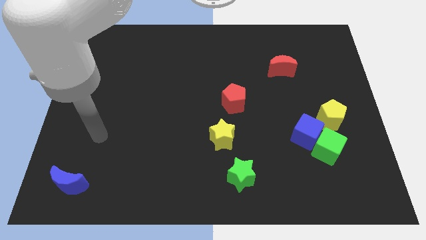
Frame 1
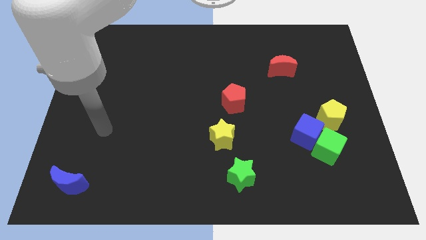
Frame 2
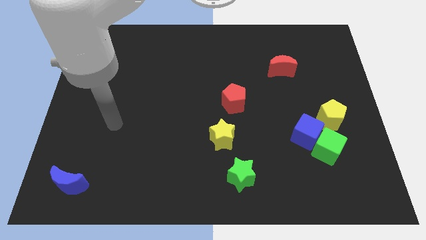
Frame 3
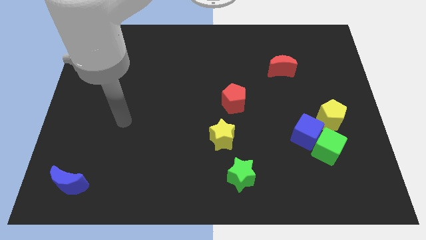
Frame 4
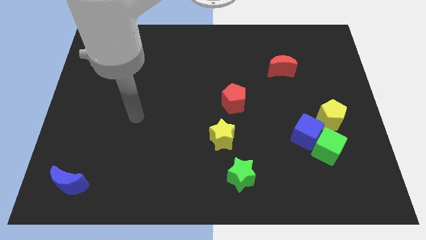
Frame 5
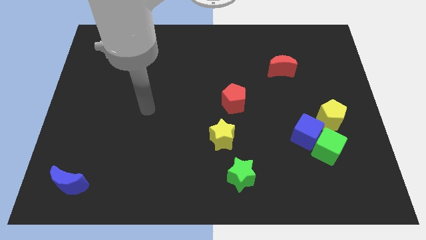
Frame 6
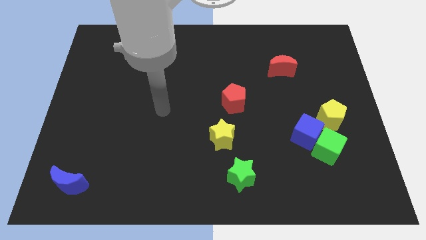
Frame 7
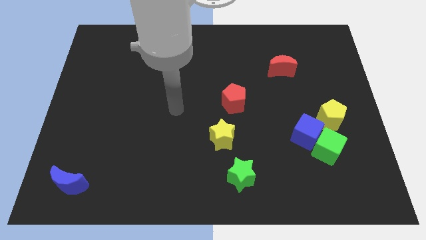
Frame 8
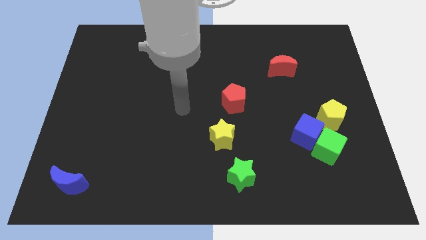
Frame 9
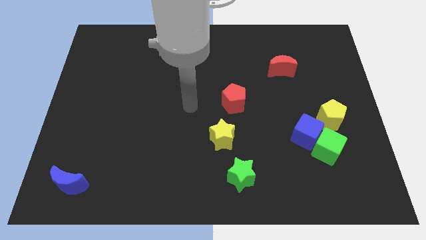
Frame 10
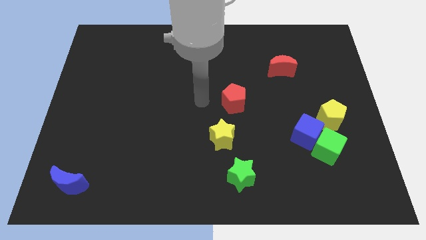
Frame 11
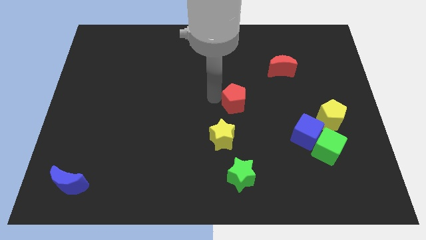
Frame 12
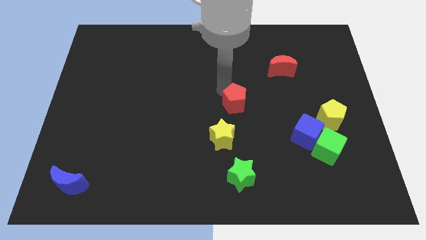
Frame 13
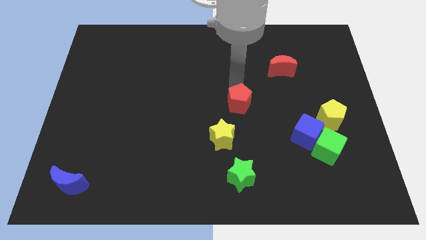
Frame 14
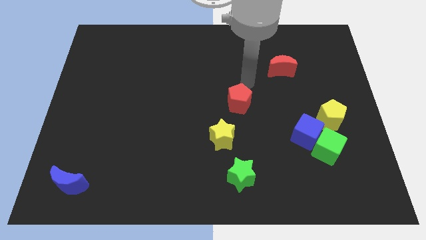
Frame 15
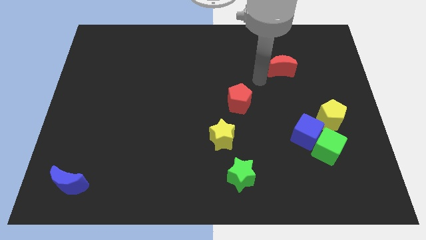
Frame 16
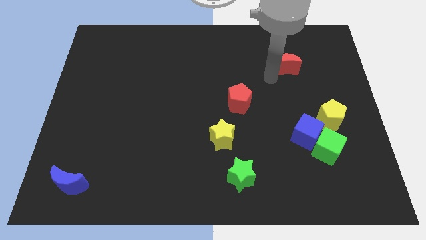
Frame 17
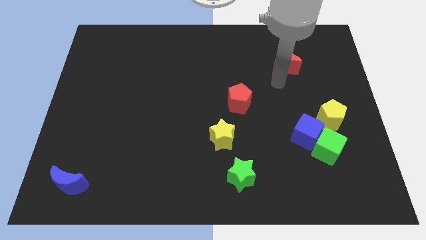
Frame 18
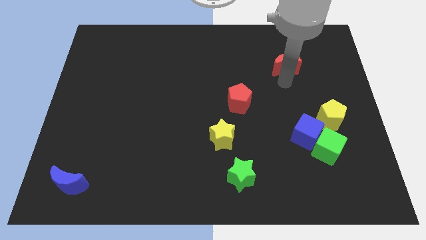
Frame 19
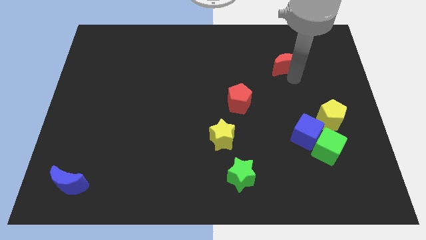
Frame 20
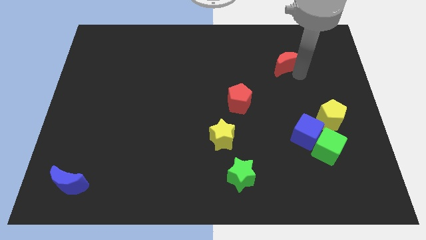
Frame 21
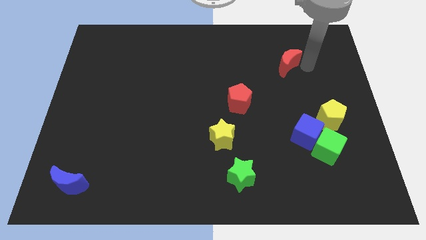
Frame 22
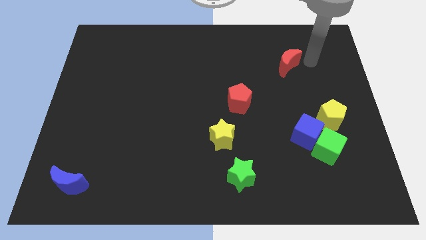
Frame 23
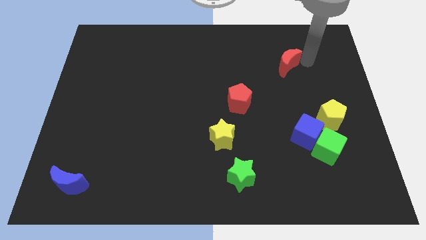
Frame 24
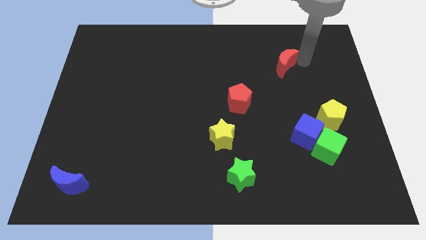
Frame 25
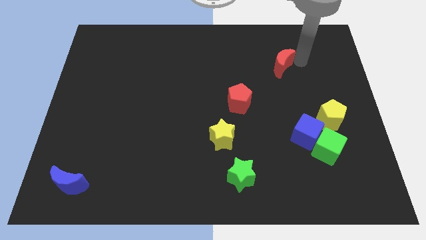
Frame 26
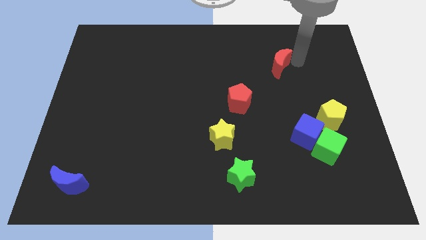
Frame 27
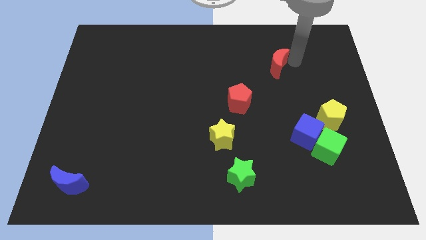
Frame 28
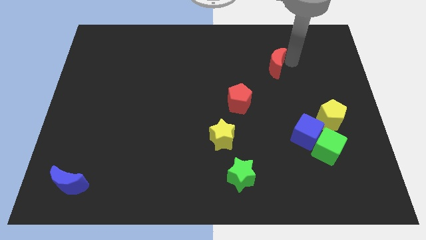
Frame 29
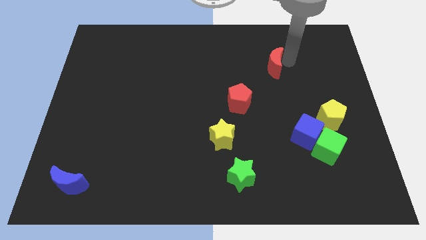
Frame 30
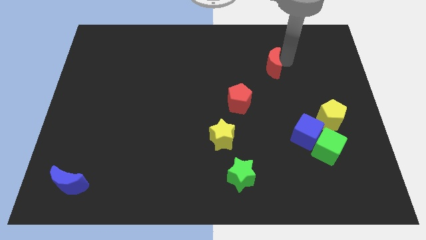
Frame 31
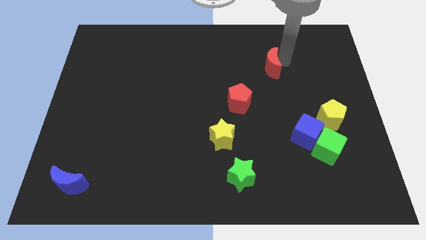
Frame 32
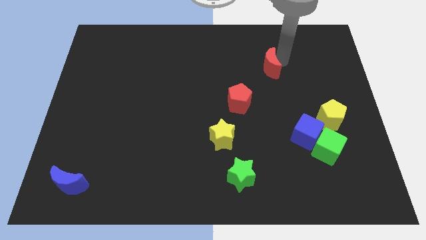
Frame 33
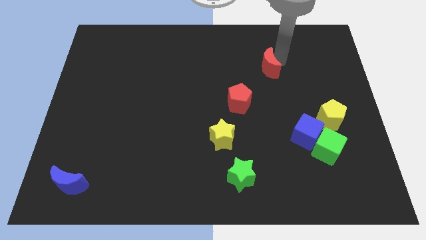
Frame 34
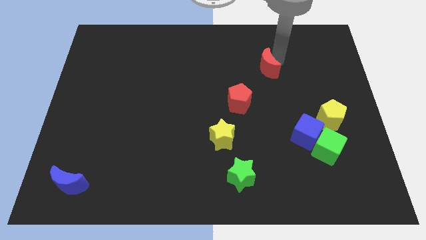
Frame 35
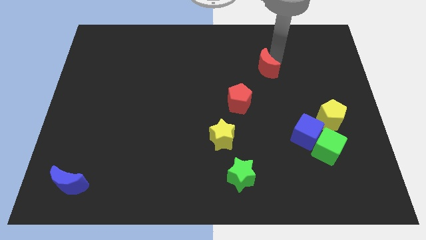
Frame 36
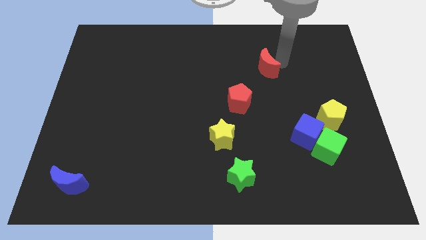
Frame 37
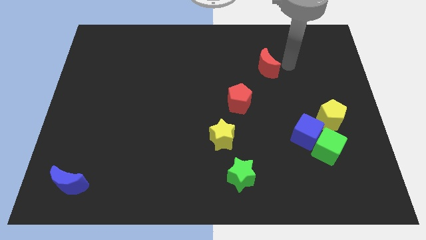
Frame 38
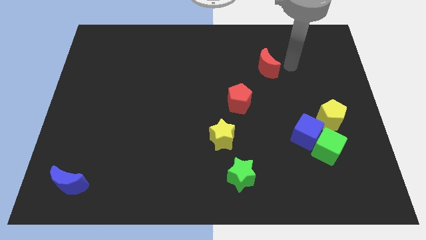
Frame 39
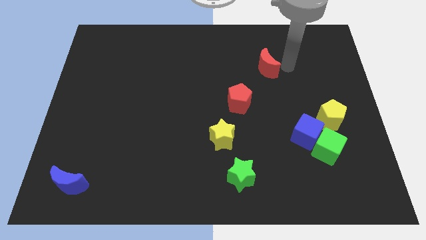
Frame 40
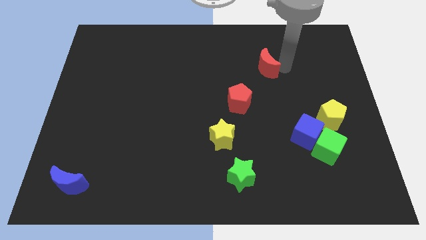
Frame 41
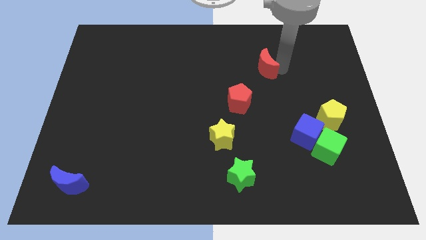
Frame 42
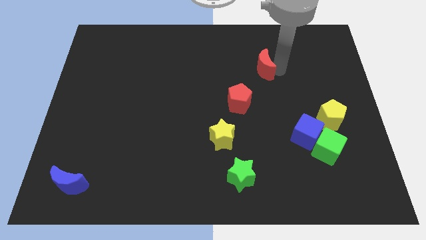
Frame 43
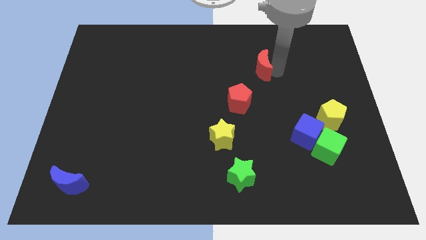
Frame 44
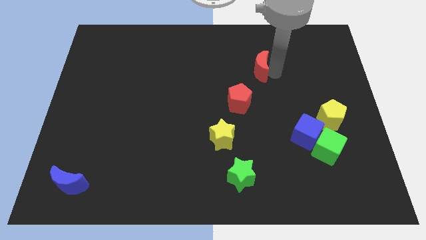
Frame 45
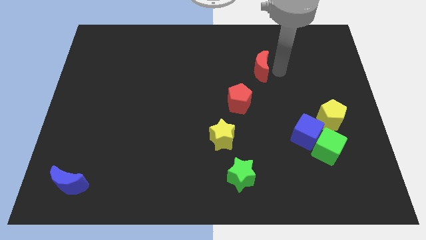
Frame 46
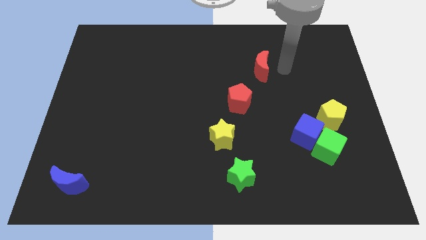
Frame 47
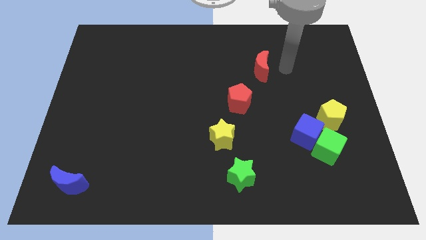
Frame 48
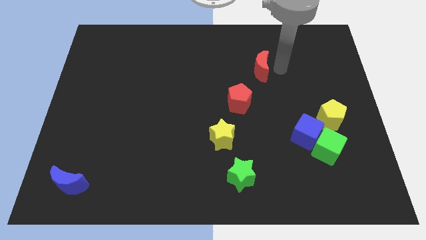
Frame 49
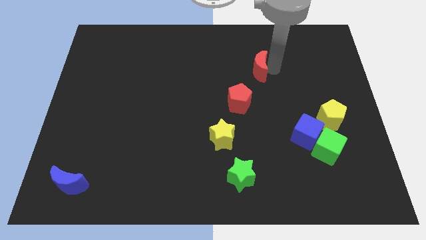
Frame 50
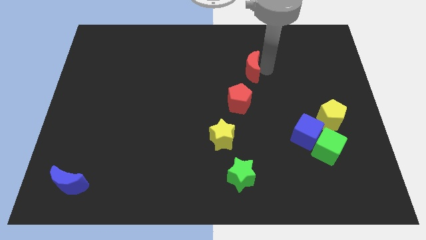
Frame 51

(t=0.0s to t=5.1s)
push the red moon to the top of the red pentagon

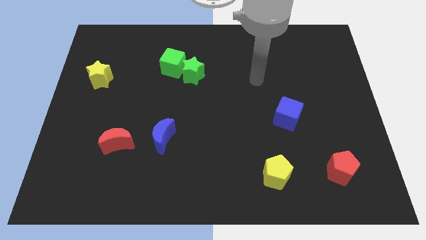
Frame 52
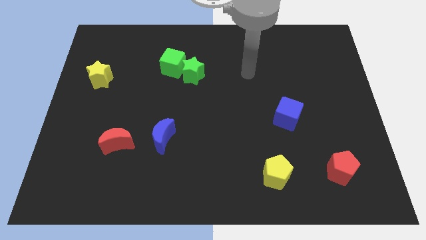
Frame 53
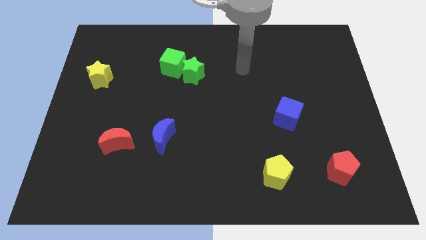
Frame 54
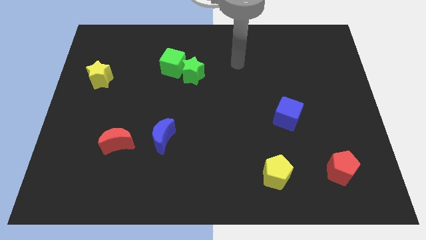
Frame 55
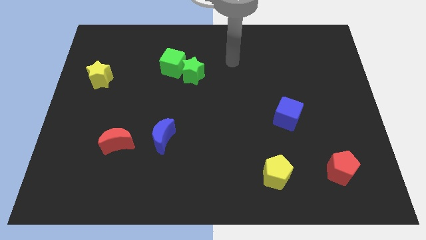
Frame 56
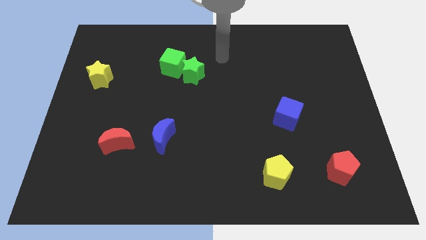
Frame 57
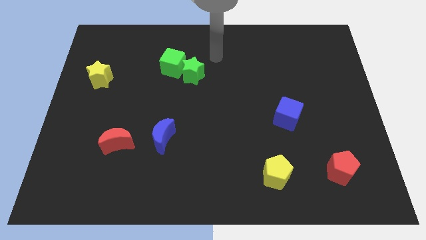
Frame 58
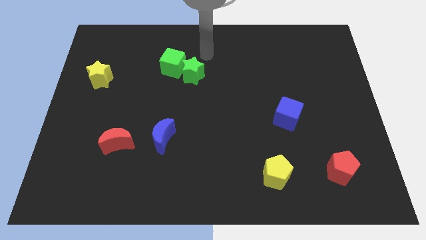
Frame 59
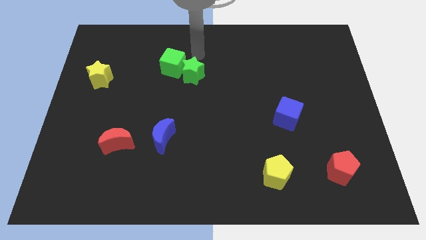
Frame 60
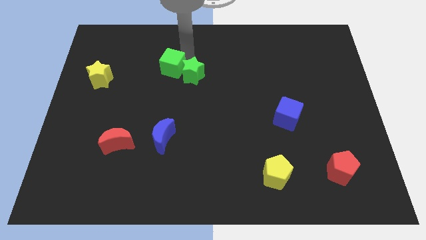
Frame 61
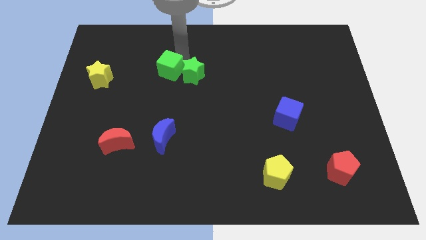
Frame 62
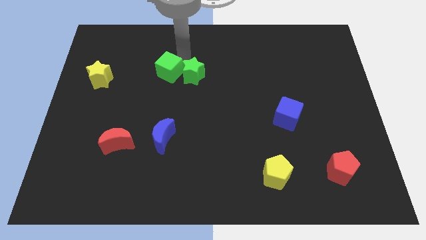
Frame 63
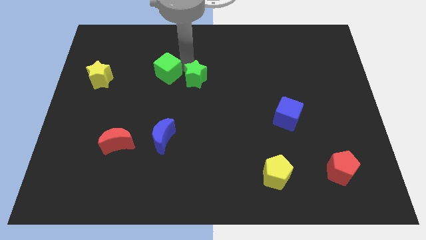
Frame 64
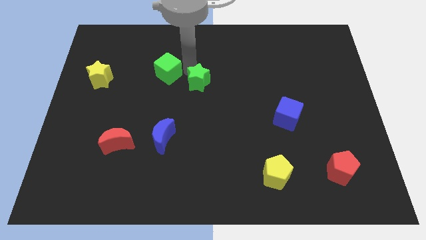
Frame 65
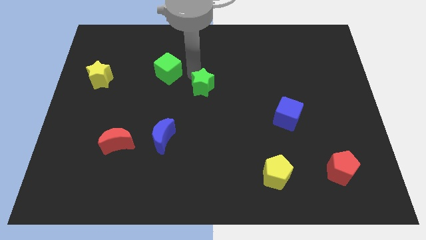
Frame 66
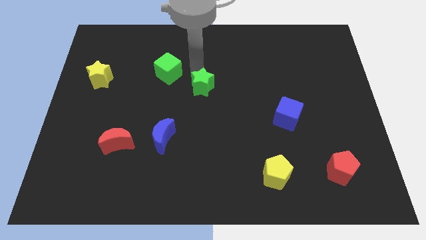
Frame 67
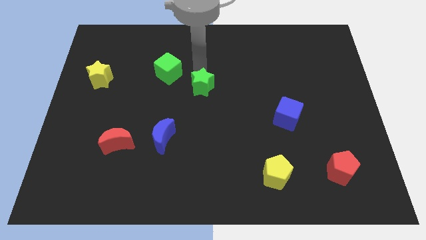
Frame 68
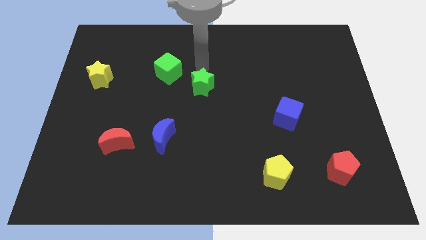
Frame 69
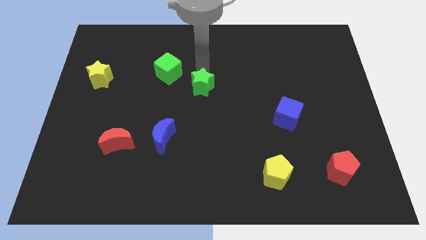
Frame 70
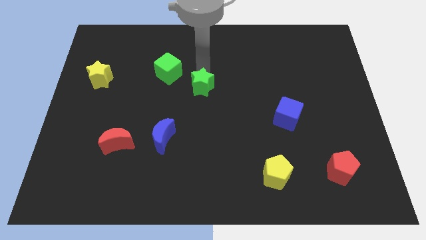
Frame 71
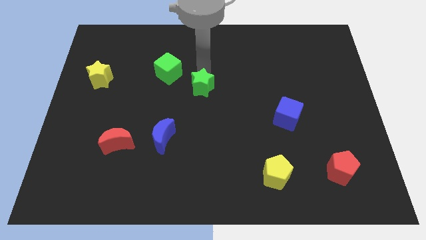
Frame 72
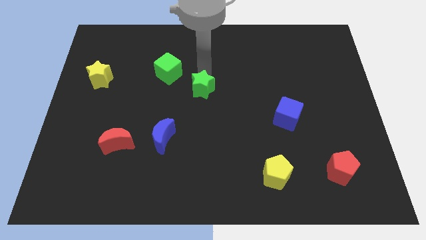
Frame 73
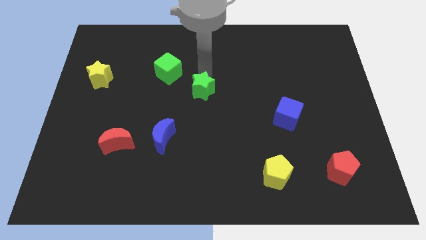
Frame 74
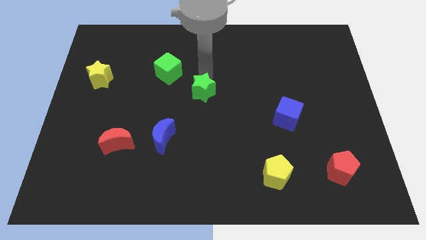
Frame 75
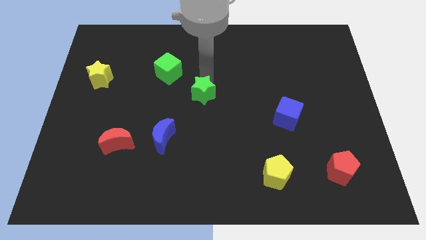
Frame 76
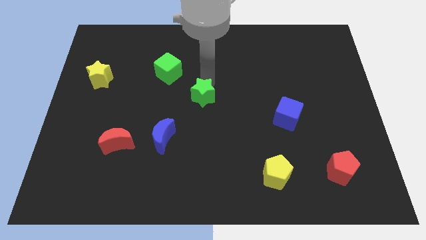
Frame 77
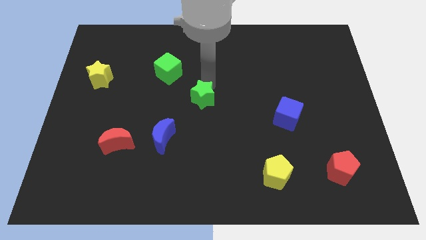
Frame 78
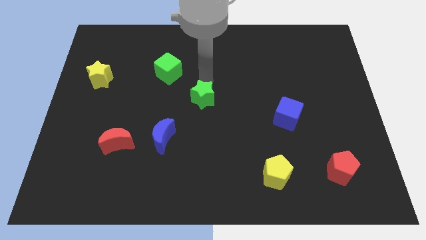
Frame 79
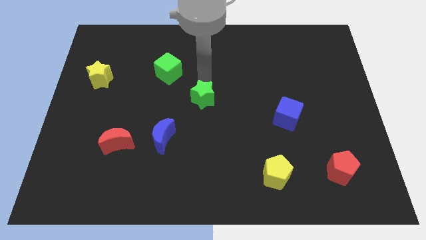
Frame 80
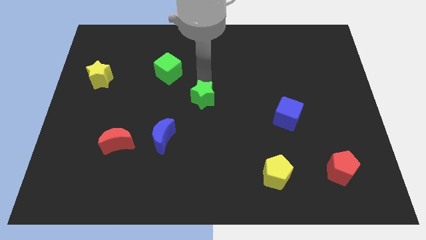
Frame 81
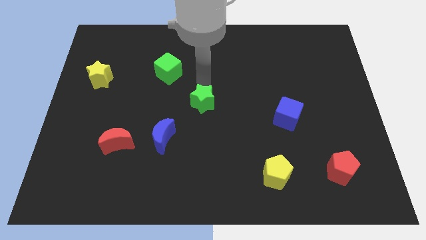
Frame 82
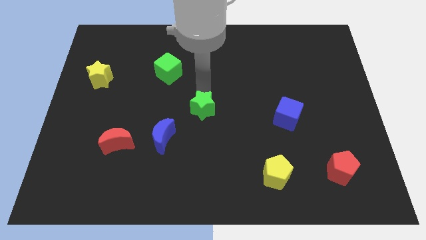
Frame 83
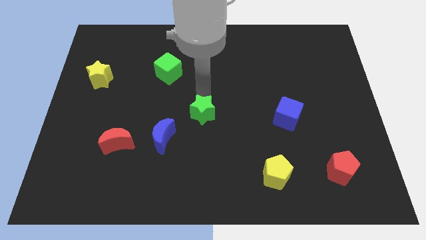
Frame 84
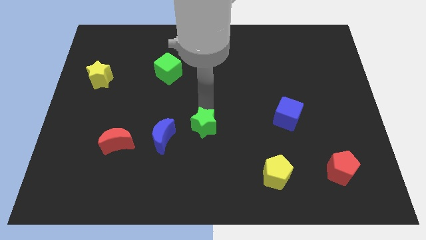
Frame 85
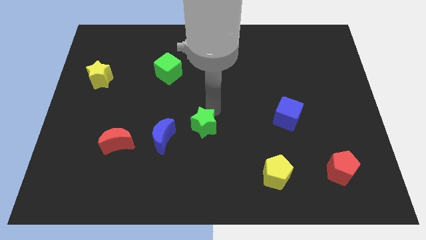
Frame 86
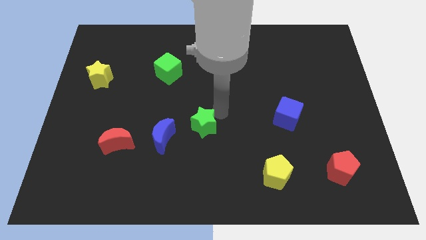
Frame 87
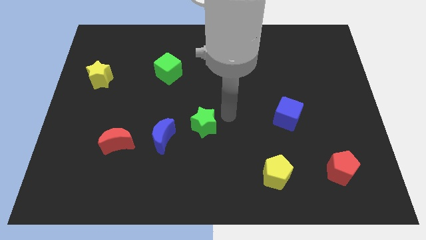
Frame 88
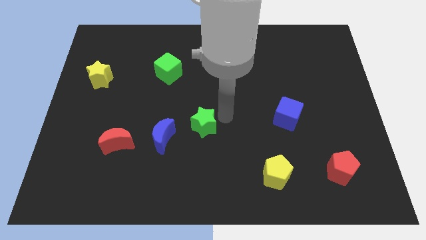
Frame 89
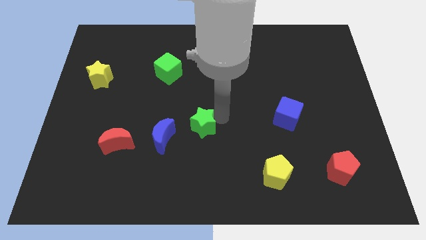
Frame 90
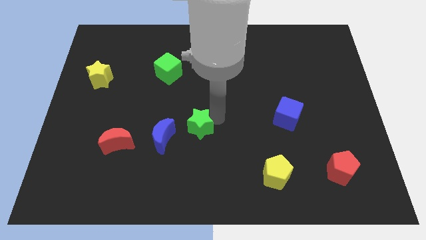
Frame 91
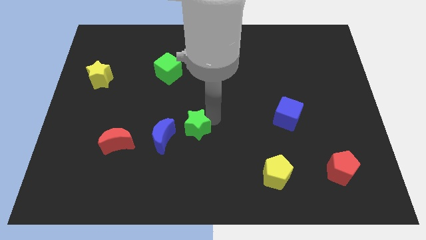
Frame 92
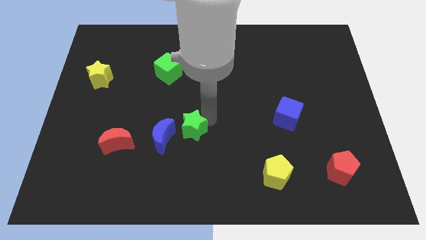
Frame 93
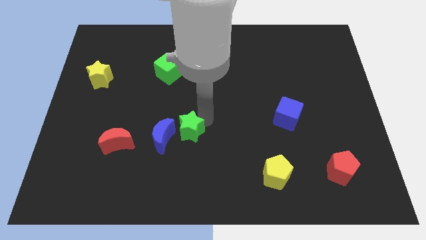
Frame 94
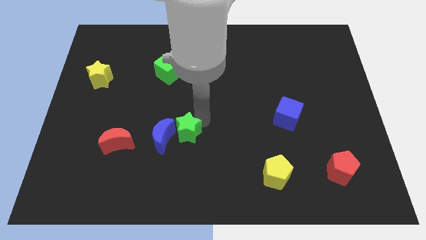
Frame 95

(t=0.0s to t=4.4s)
put the green star to the right of the red moon
